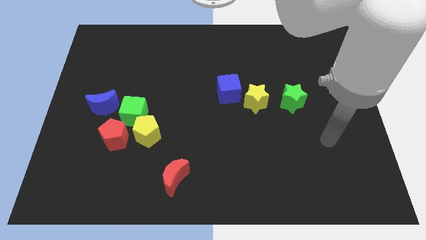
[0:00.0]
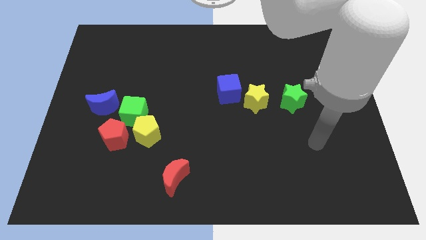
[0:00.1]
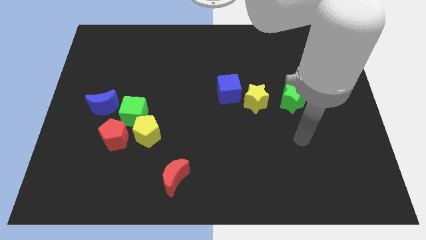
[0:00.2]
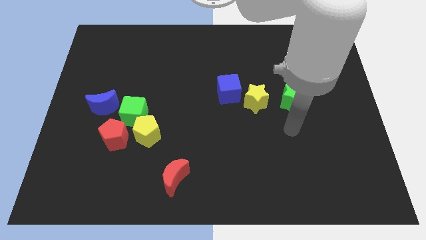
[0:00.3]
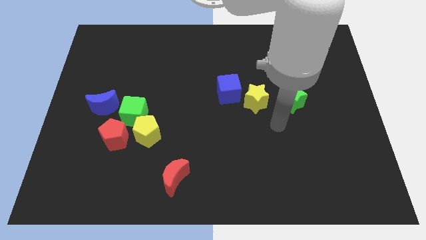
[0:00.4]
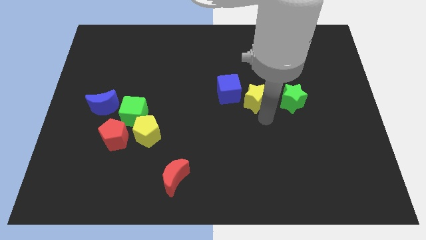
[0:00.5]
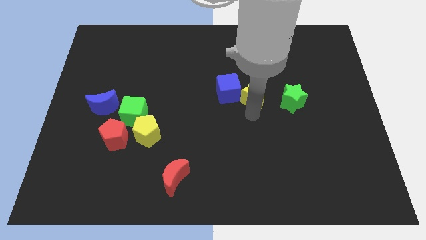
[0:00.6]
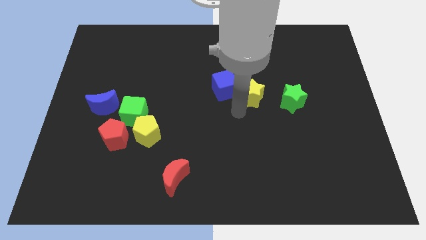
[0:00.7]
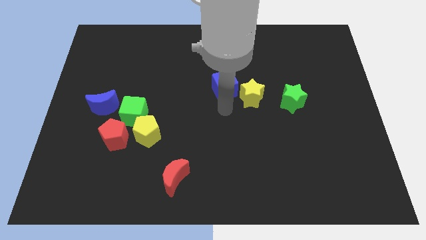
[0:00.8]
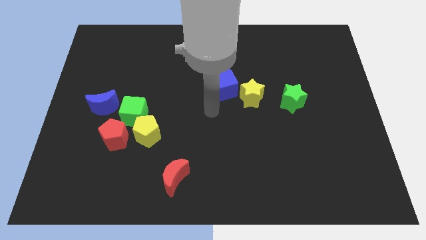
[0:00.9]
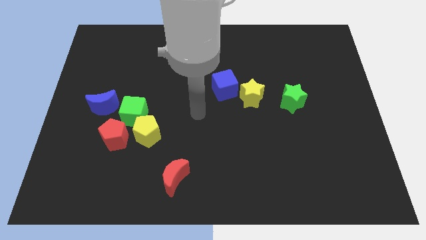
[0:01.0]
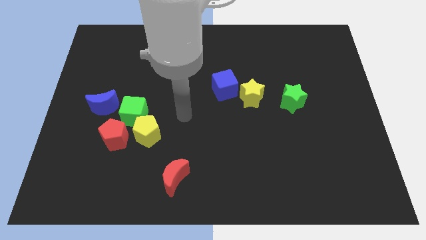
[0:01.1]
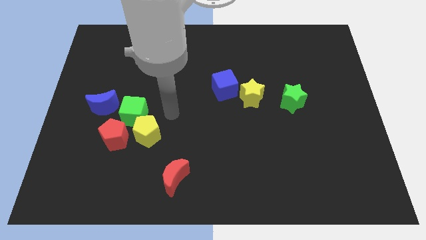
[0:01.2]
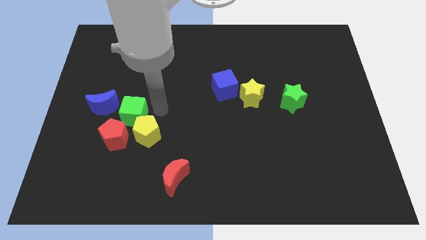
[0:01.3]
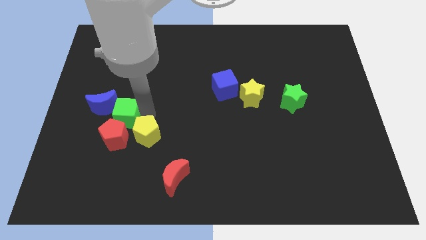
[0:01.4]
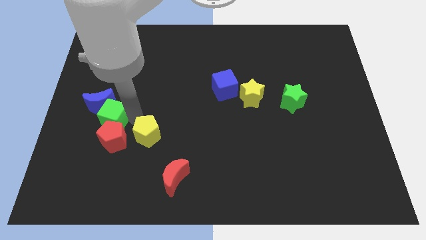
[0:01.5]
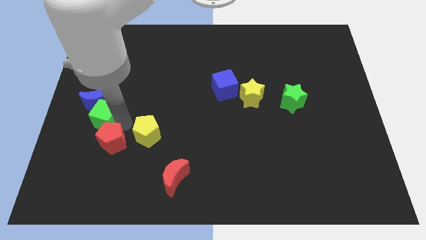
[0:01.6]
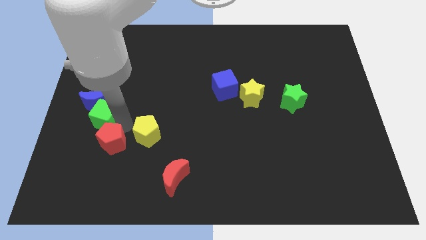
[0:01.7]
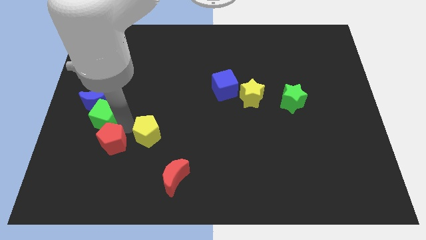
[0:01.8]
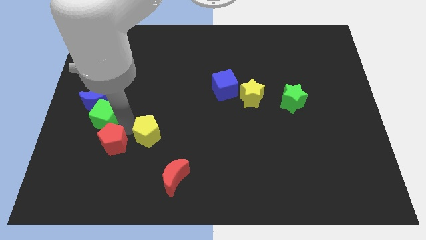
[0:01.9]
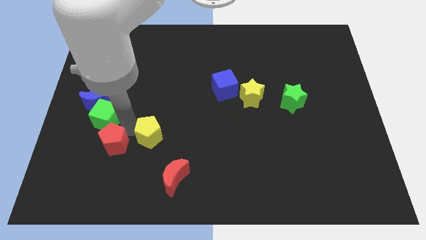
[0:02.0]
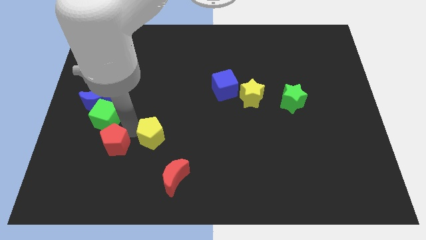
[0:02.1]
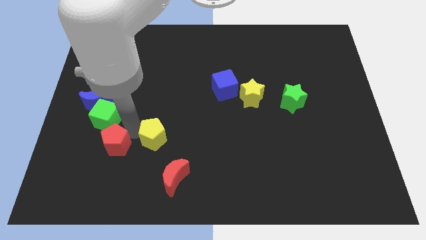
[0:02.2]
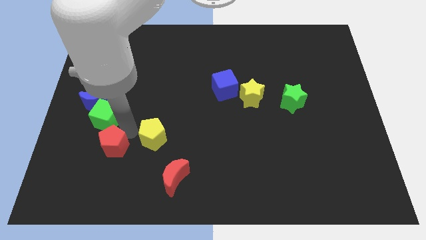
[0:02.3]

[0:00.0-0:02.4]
move the yellow pentagon away from the green cube and red pentagon

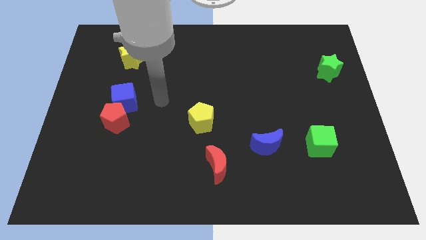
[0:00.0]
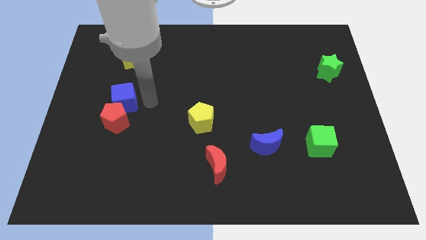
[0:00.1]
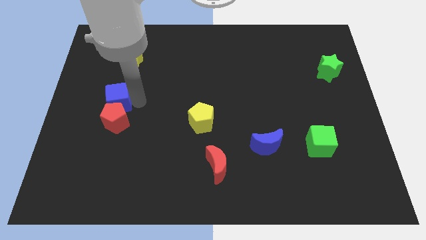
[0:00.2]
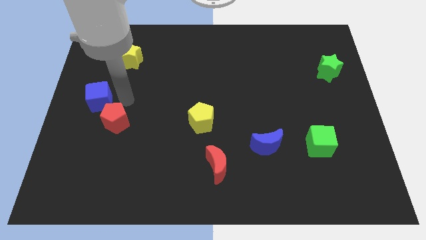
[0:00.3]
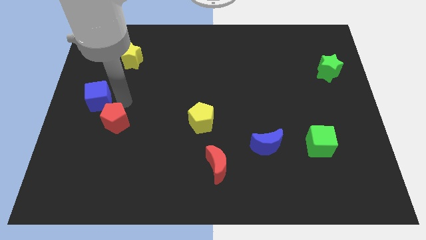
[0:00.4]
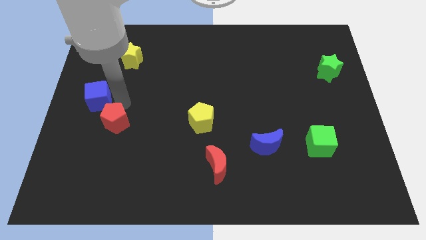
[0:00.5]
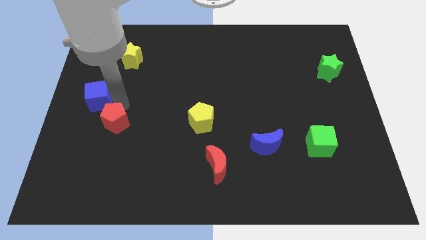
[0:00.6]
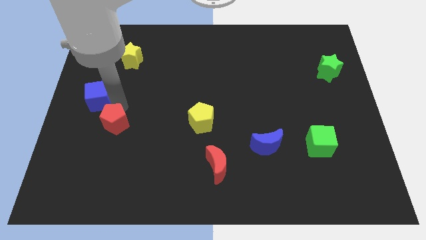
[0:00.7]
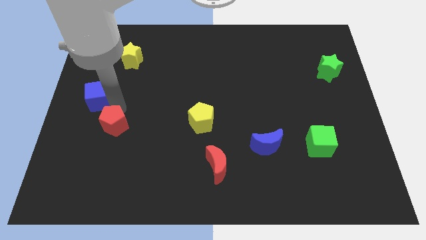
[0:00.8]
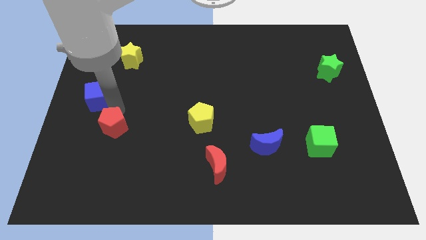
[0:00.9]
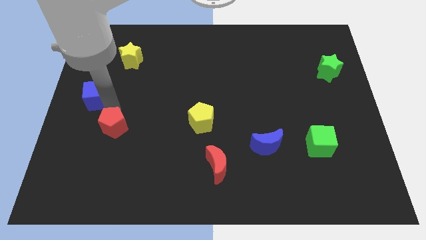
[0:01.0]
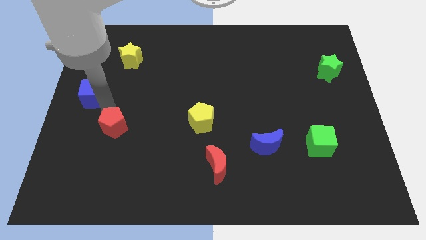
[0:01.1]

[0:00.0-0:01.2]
move the red pentagon away from the blue cube

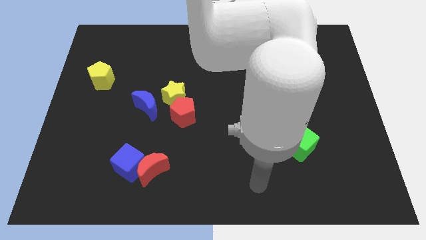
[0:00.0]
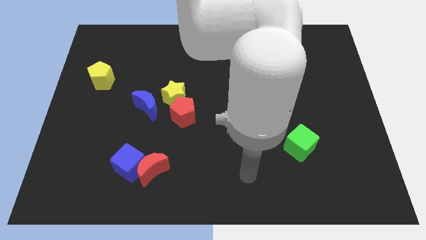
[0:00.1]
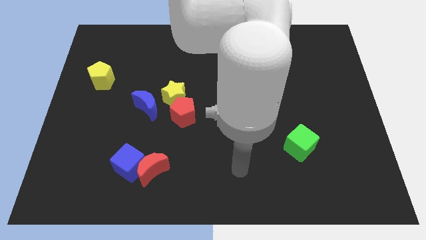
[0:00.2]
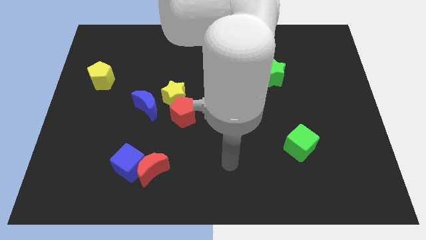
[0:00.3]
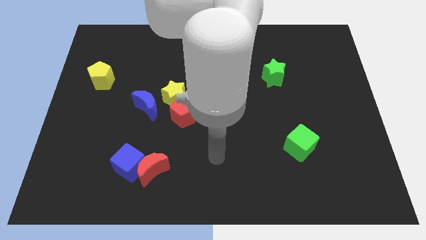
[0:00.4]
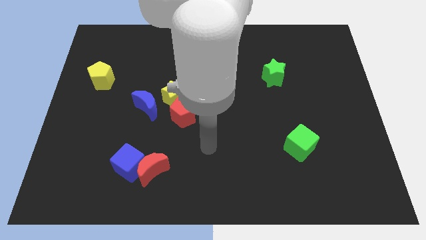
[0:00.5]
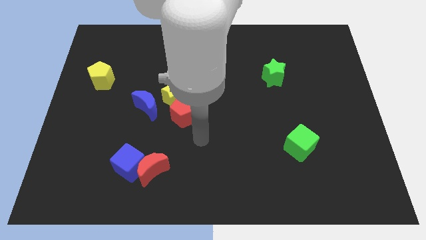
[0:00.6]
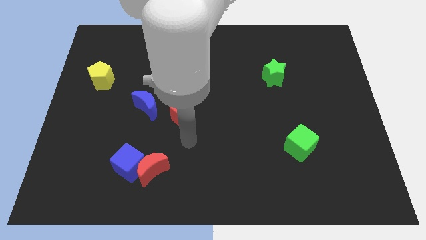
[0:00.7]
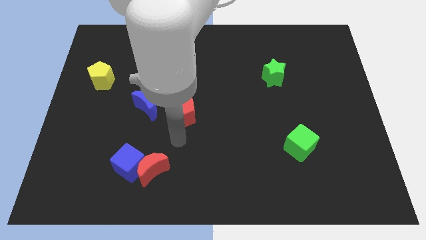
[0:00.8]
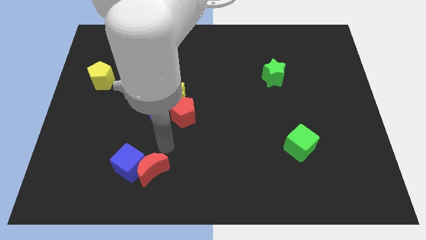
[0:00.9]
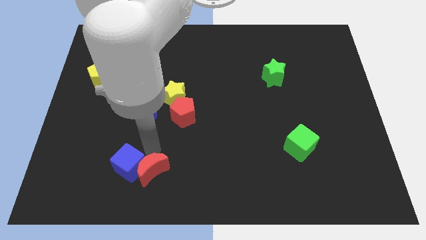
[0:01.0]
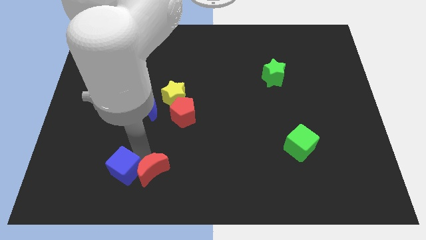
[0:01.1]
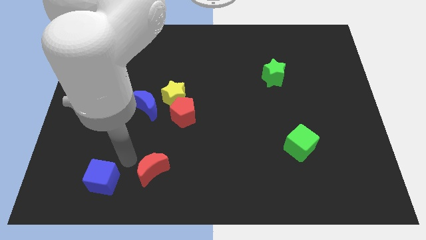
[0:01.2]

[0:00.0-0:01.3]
separate the red moon from the blue cube

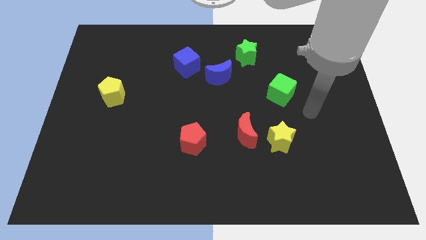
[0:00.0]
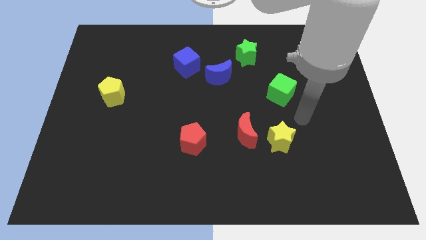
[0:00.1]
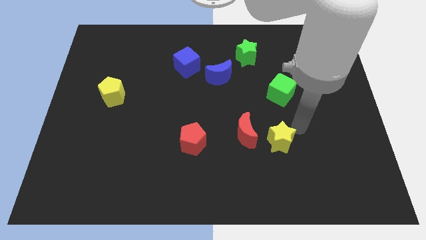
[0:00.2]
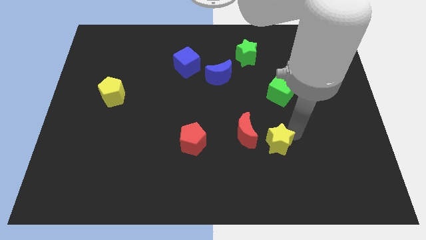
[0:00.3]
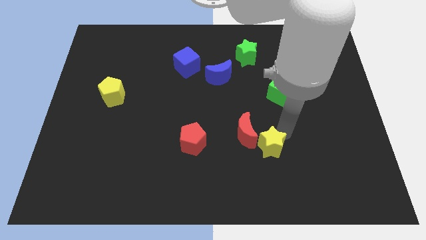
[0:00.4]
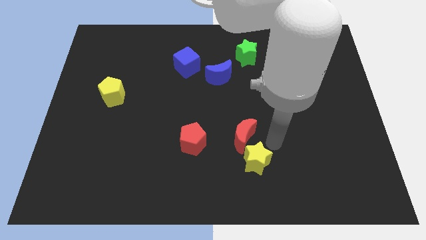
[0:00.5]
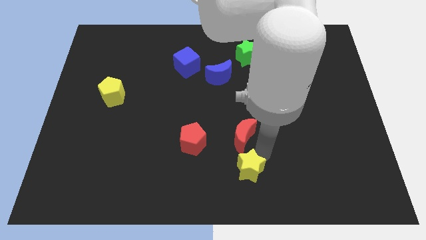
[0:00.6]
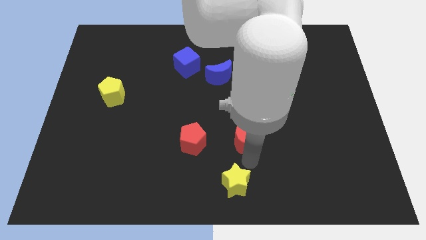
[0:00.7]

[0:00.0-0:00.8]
move the red moon away from the yellow star

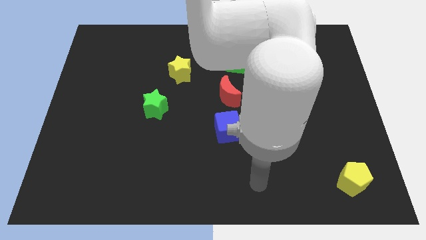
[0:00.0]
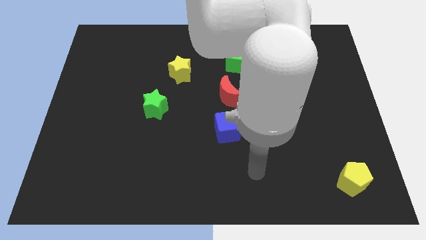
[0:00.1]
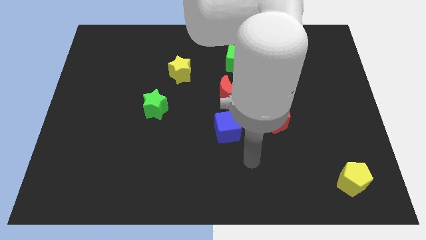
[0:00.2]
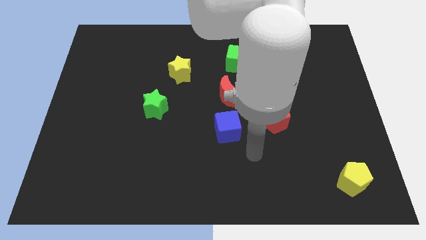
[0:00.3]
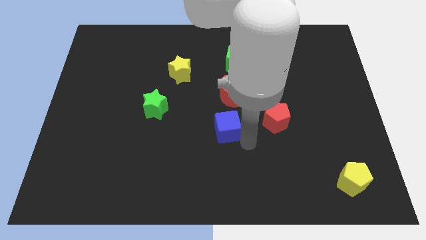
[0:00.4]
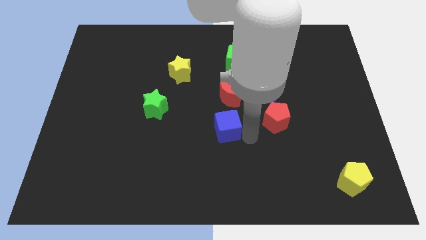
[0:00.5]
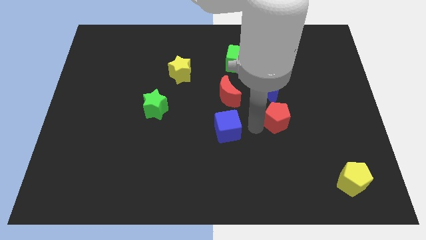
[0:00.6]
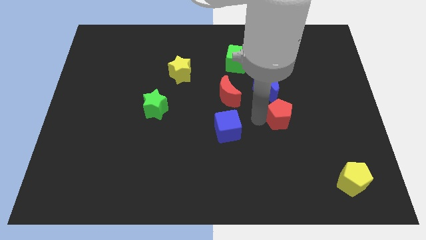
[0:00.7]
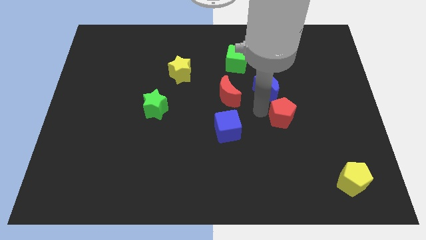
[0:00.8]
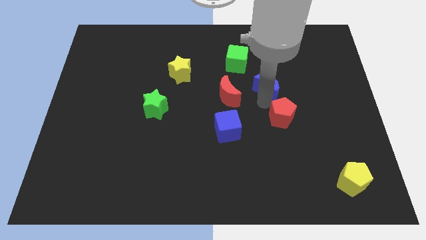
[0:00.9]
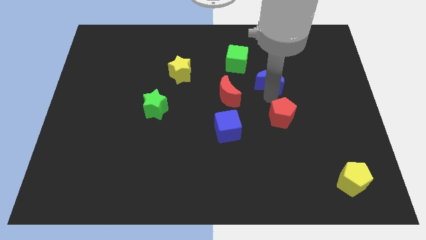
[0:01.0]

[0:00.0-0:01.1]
pull the red pentagon apart from the blue moon

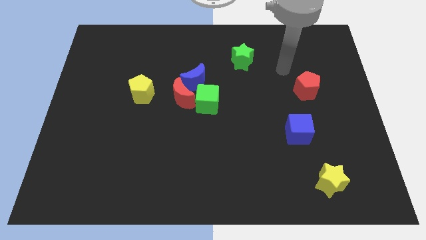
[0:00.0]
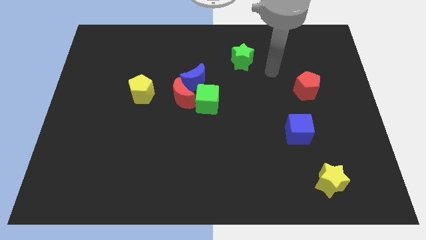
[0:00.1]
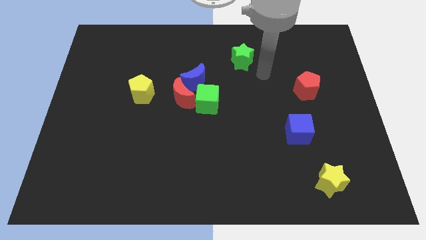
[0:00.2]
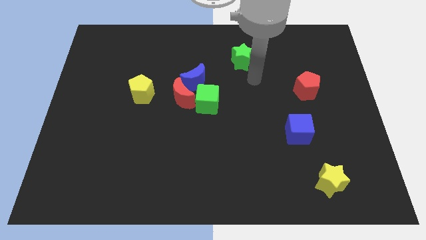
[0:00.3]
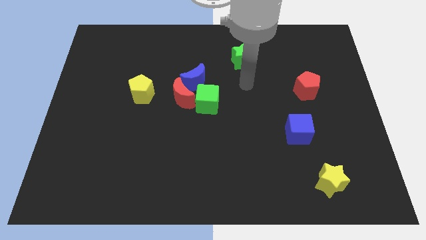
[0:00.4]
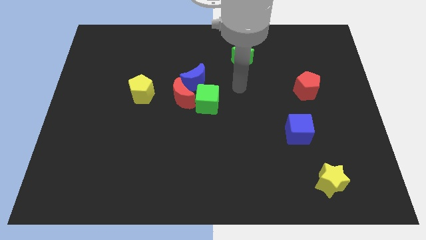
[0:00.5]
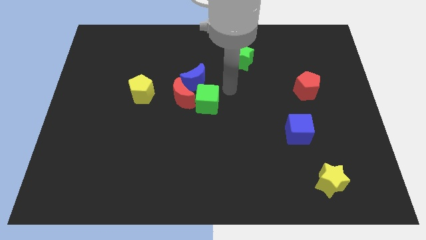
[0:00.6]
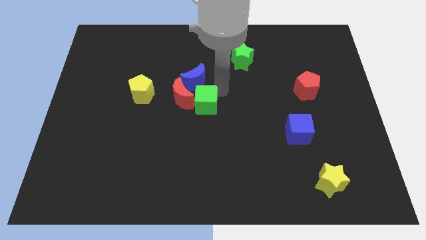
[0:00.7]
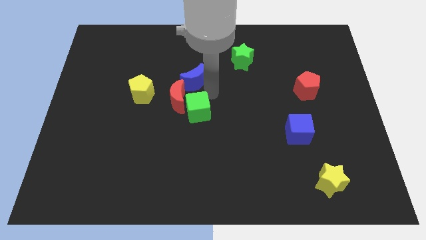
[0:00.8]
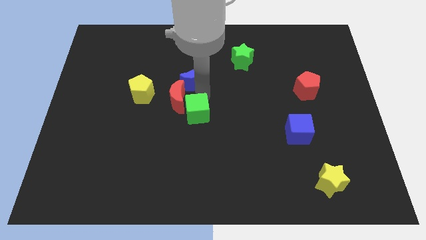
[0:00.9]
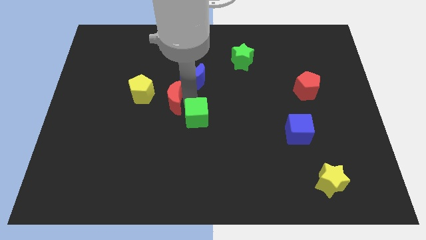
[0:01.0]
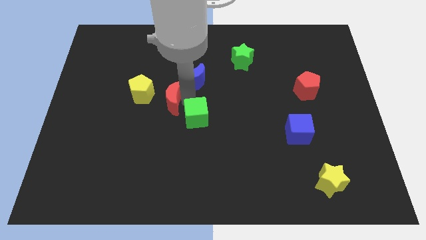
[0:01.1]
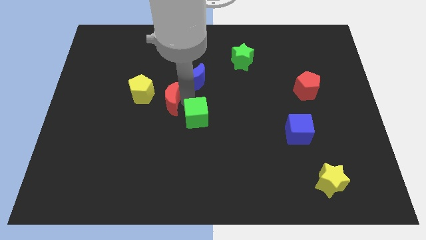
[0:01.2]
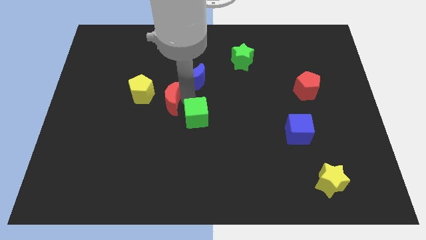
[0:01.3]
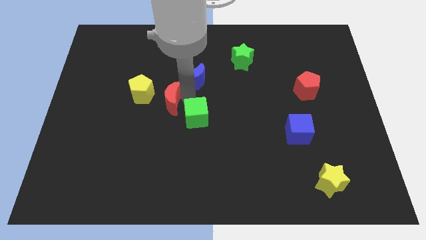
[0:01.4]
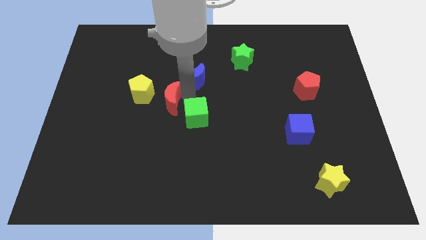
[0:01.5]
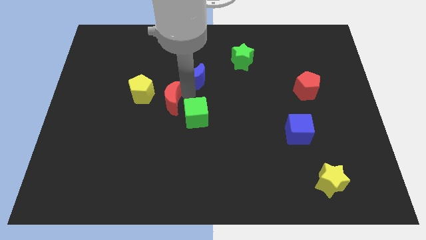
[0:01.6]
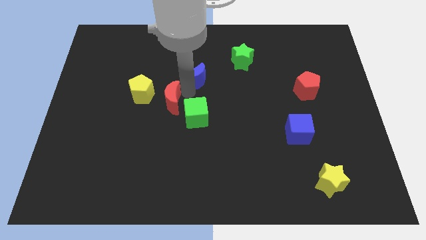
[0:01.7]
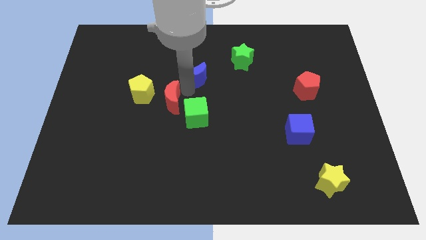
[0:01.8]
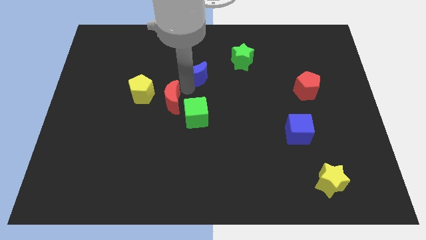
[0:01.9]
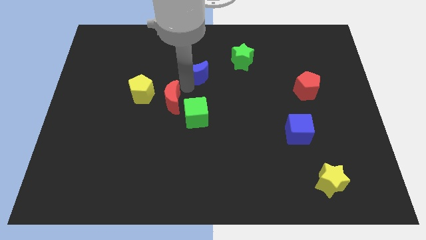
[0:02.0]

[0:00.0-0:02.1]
pull the blue moon apart from the red moon and green cube

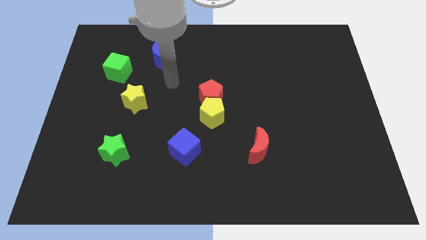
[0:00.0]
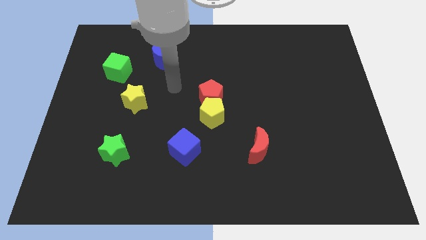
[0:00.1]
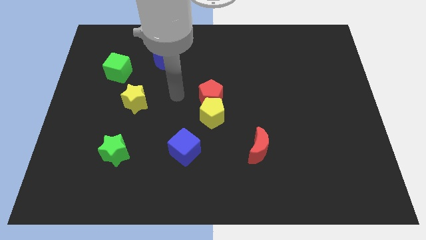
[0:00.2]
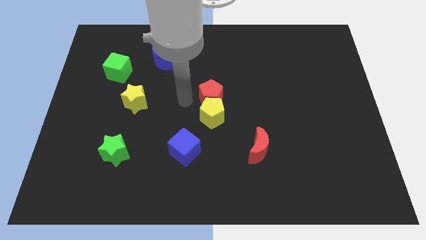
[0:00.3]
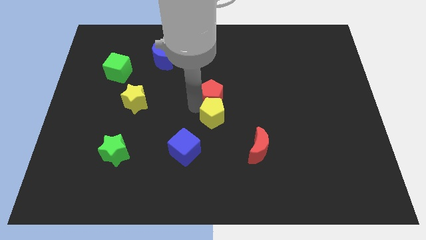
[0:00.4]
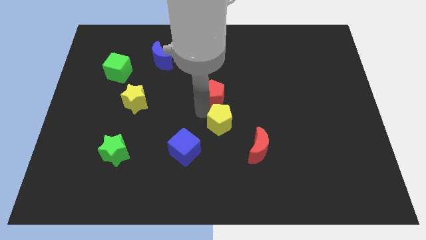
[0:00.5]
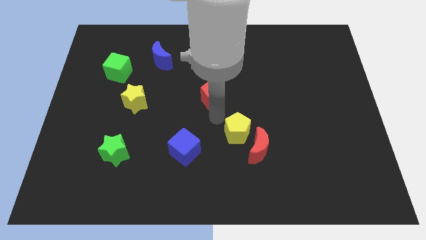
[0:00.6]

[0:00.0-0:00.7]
move the red pentagon away from the yellow pentagon
